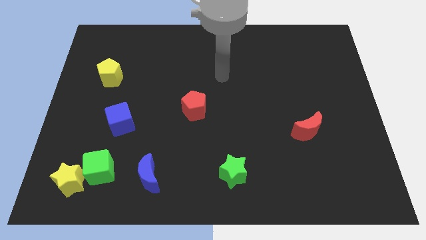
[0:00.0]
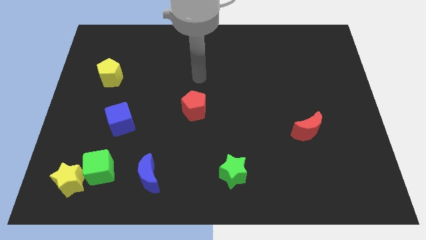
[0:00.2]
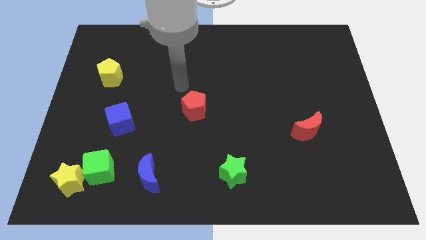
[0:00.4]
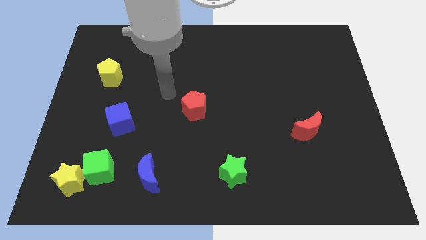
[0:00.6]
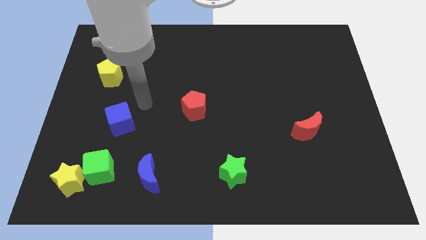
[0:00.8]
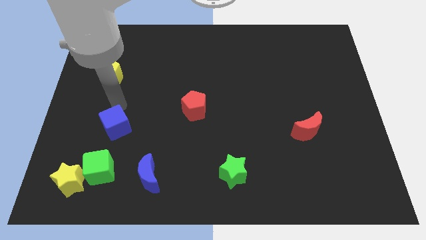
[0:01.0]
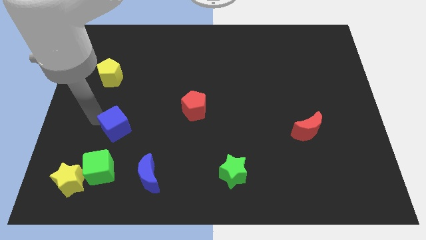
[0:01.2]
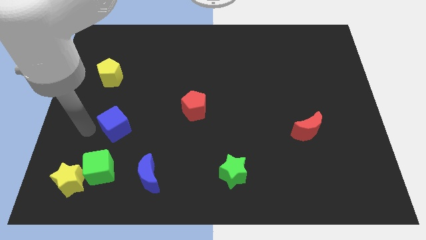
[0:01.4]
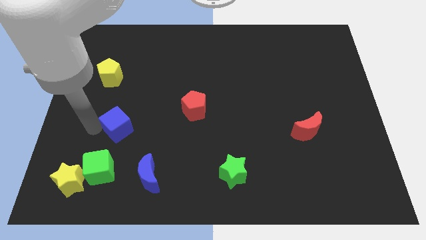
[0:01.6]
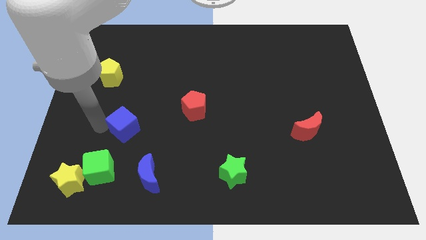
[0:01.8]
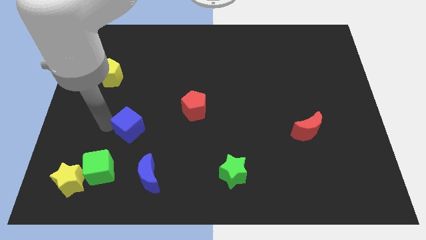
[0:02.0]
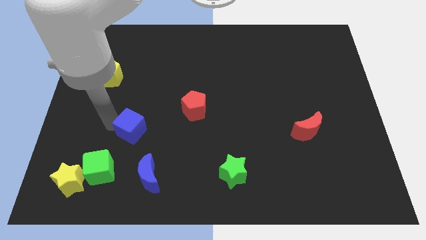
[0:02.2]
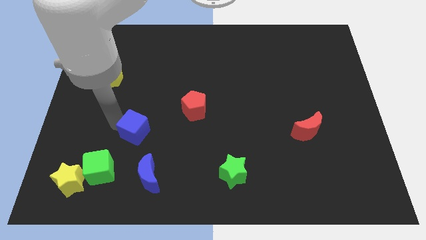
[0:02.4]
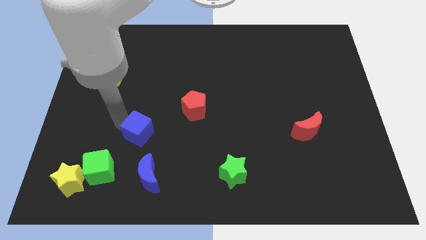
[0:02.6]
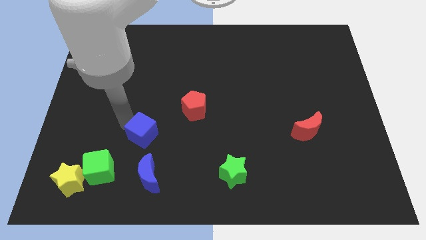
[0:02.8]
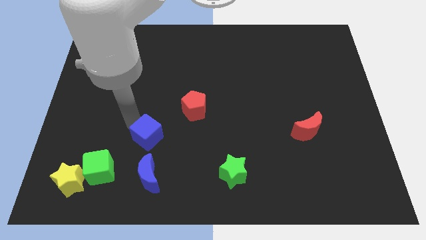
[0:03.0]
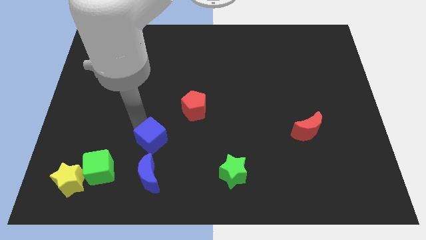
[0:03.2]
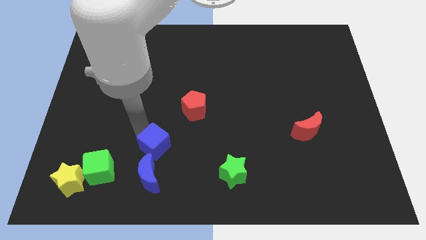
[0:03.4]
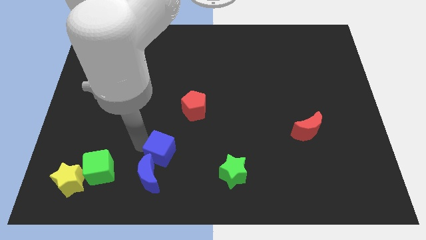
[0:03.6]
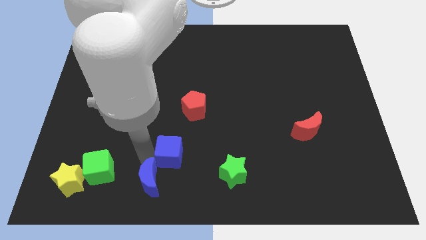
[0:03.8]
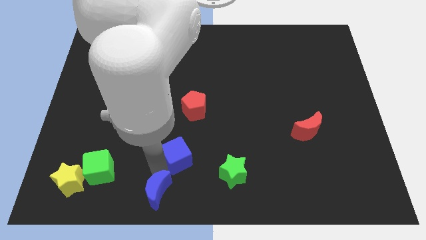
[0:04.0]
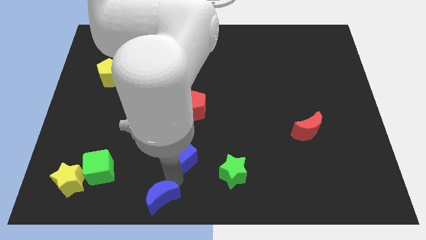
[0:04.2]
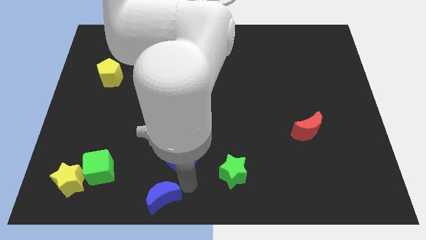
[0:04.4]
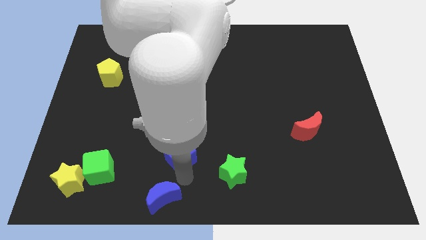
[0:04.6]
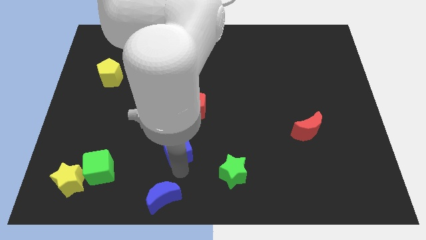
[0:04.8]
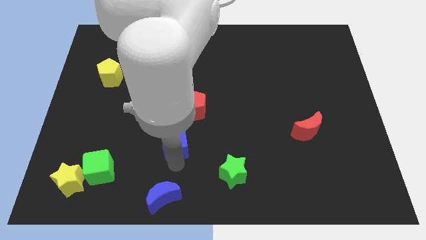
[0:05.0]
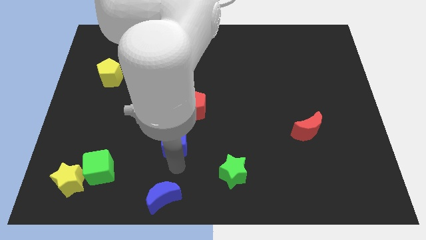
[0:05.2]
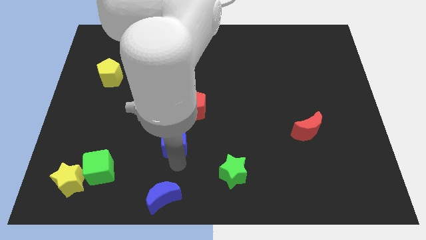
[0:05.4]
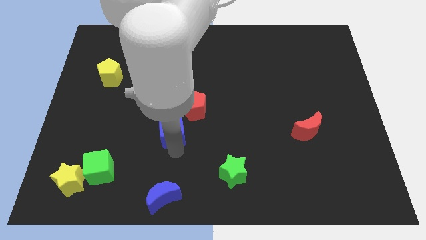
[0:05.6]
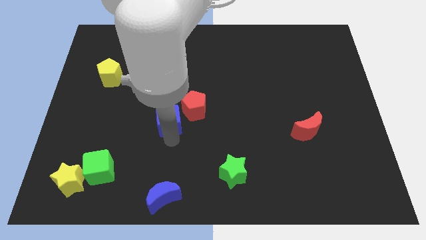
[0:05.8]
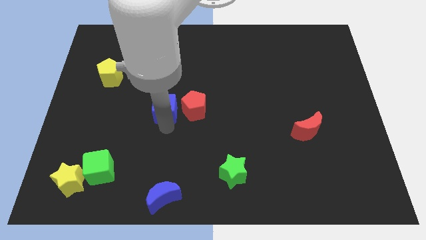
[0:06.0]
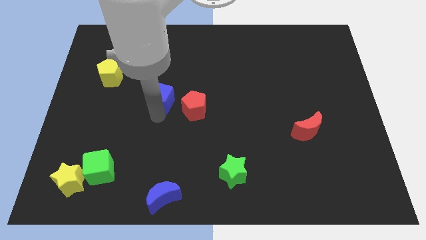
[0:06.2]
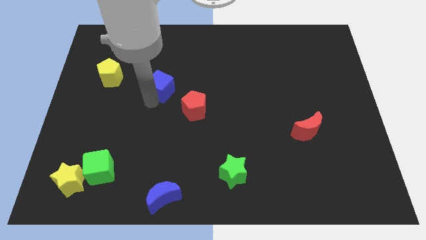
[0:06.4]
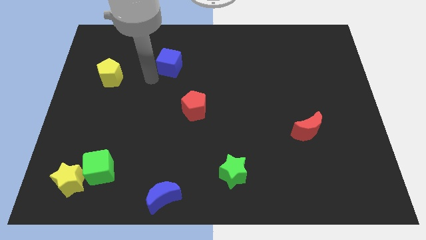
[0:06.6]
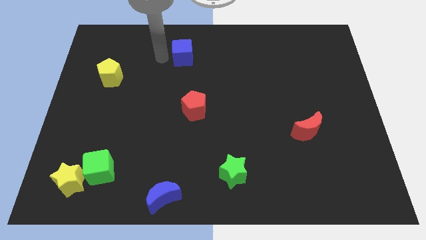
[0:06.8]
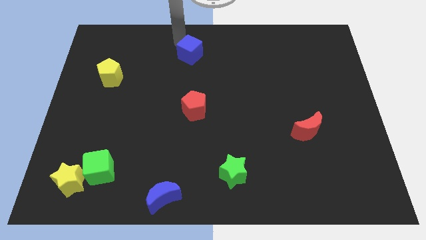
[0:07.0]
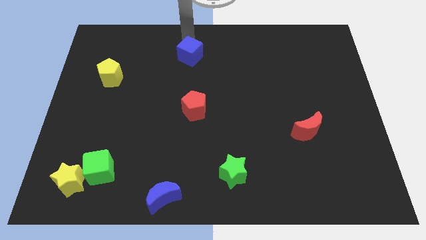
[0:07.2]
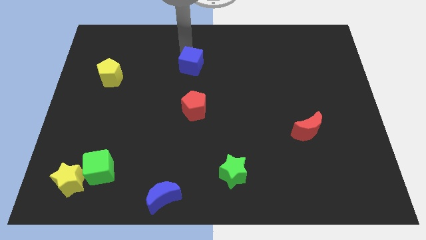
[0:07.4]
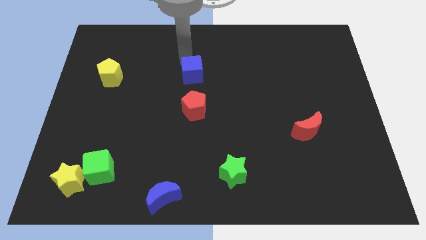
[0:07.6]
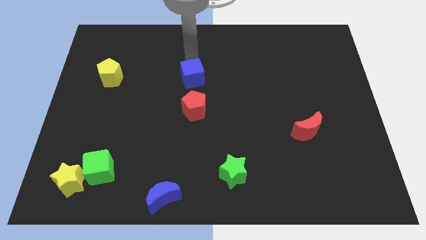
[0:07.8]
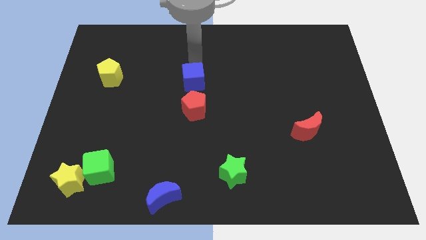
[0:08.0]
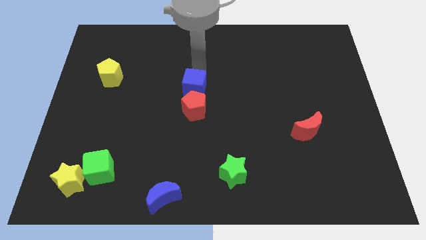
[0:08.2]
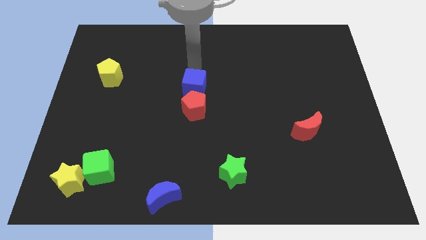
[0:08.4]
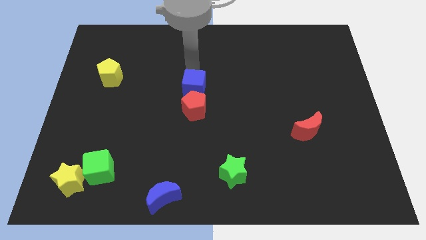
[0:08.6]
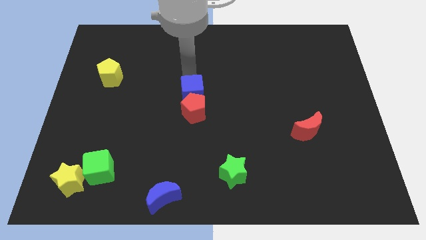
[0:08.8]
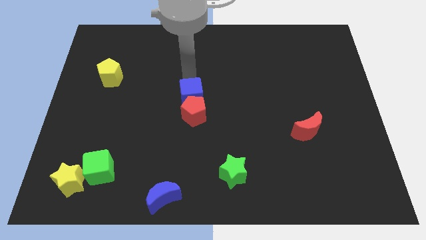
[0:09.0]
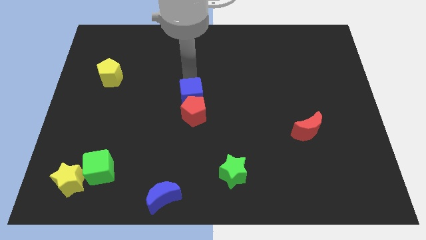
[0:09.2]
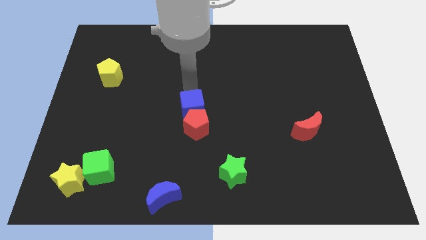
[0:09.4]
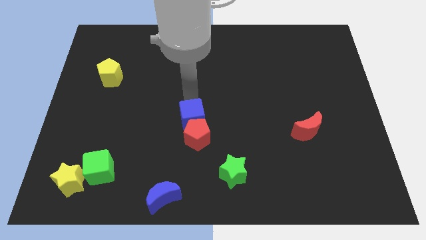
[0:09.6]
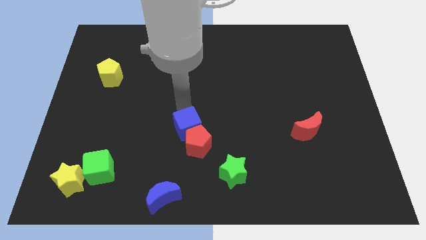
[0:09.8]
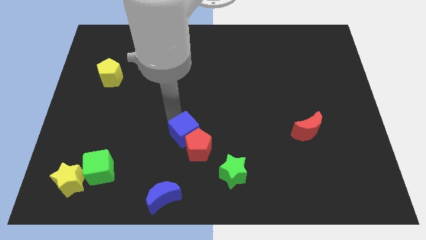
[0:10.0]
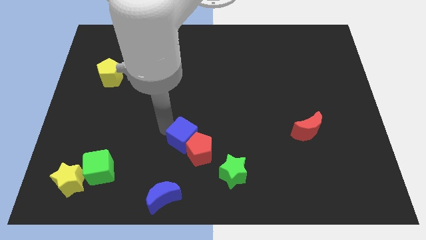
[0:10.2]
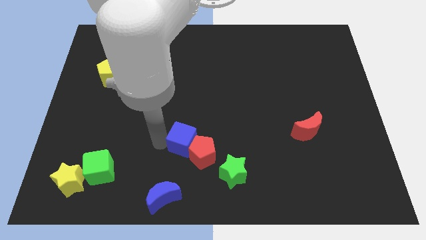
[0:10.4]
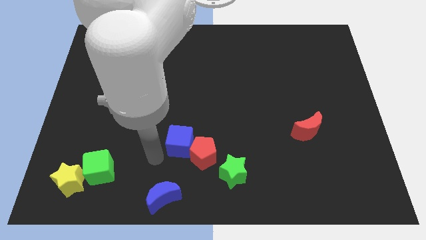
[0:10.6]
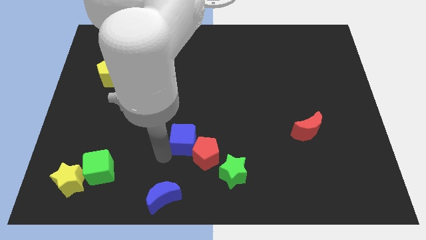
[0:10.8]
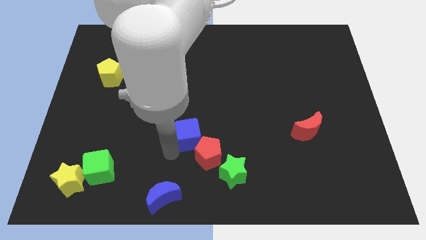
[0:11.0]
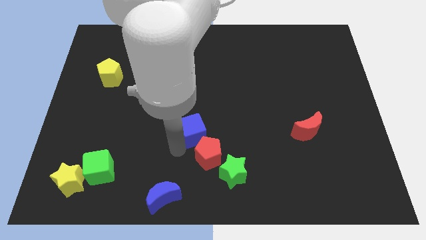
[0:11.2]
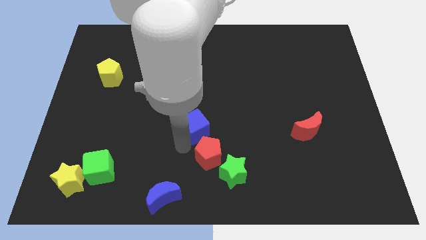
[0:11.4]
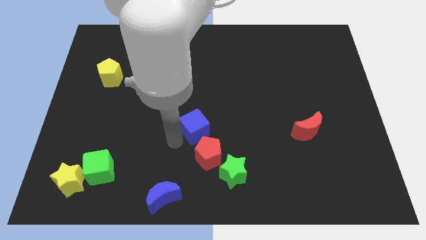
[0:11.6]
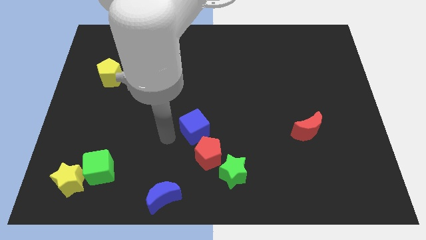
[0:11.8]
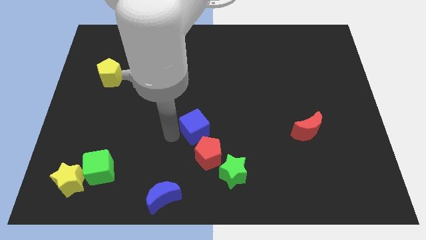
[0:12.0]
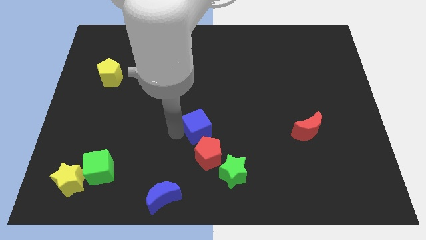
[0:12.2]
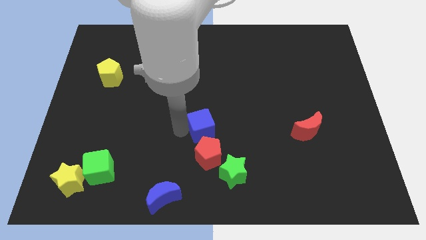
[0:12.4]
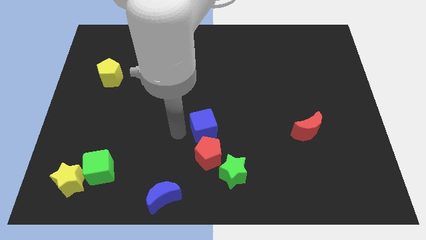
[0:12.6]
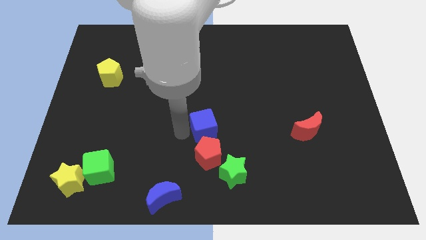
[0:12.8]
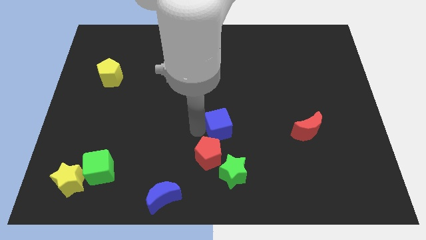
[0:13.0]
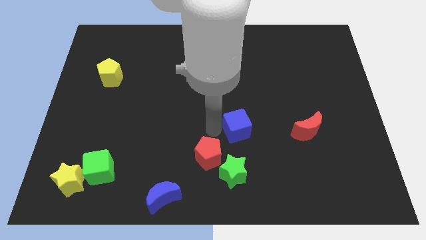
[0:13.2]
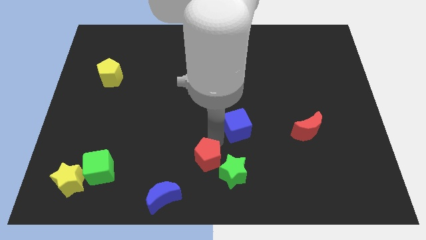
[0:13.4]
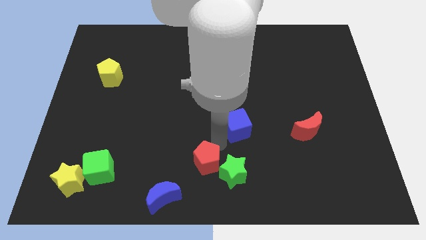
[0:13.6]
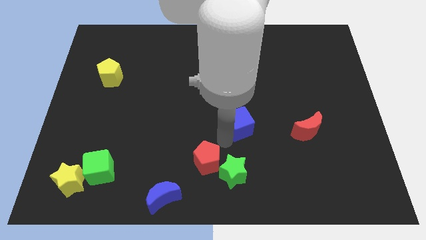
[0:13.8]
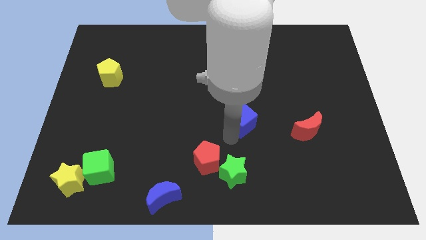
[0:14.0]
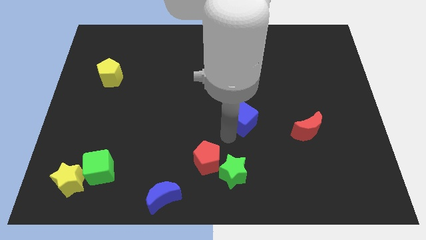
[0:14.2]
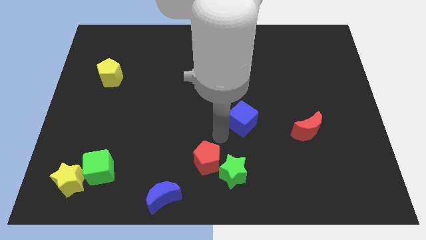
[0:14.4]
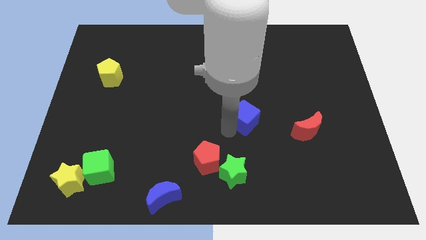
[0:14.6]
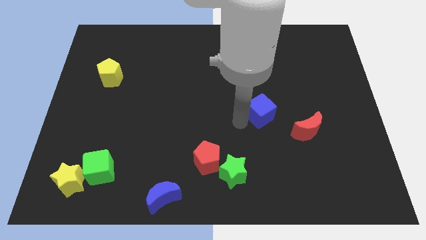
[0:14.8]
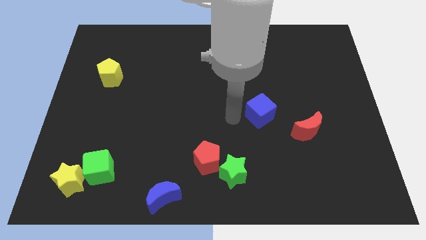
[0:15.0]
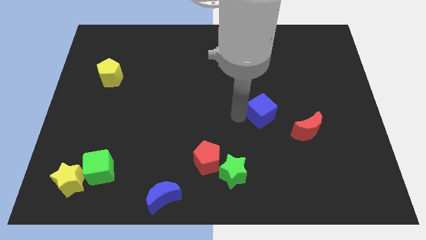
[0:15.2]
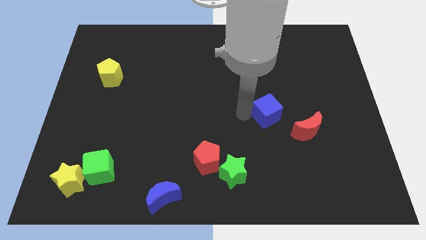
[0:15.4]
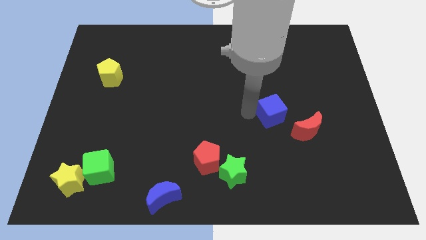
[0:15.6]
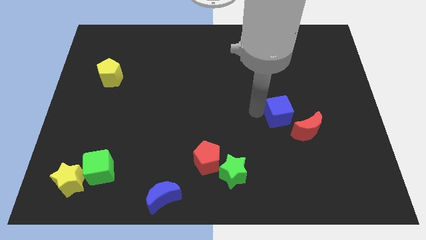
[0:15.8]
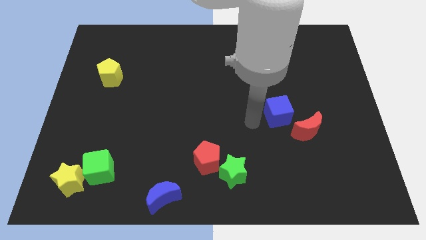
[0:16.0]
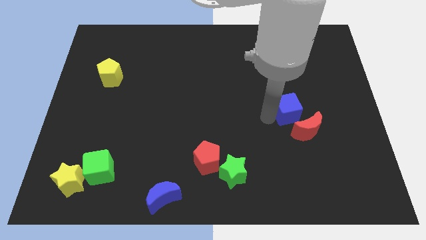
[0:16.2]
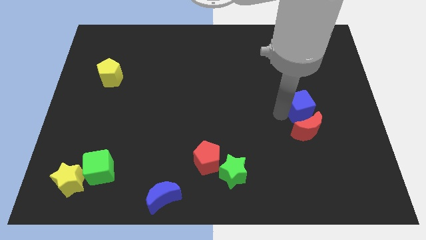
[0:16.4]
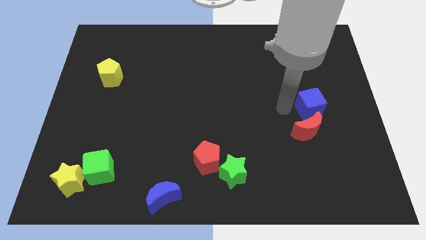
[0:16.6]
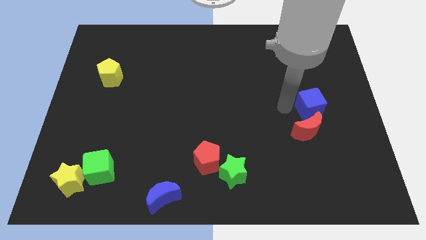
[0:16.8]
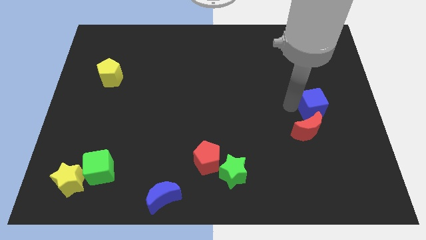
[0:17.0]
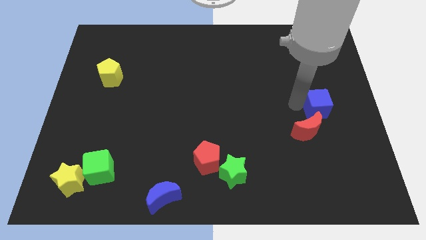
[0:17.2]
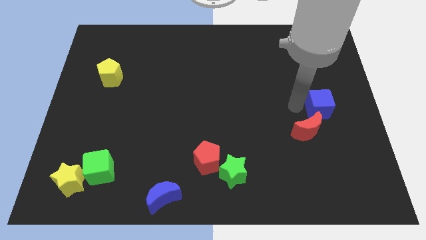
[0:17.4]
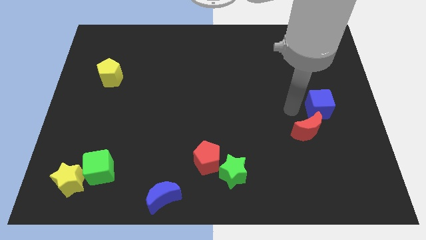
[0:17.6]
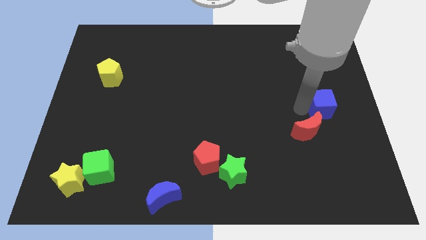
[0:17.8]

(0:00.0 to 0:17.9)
put the blue cube to the right side of the board
